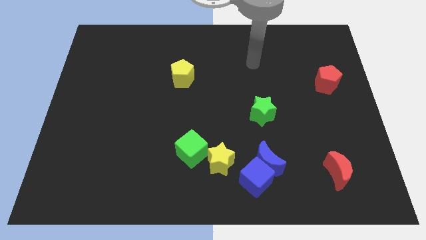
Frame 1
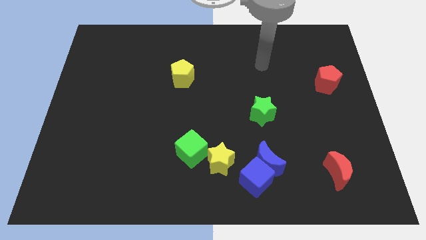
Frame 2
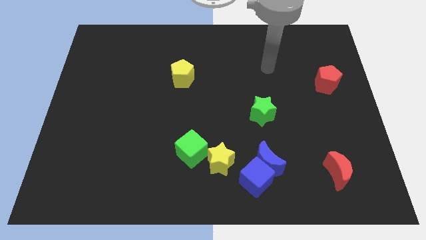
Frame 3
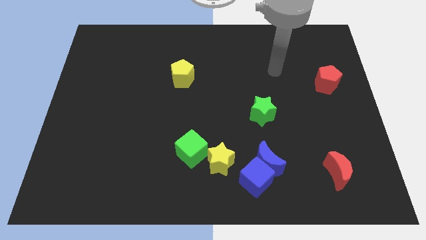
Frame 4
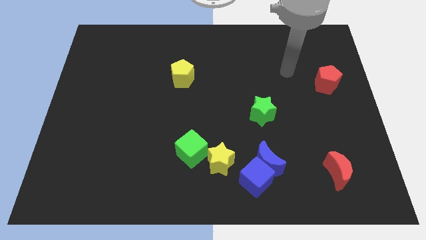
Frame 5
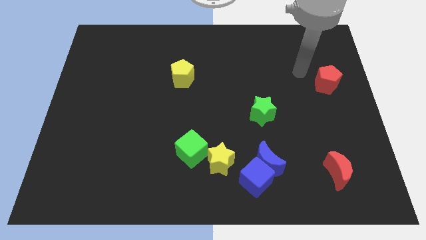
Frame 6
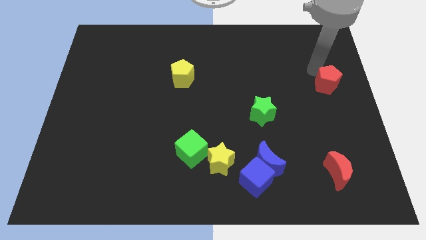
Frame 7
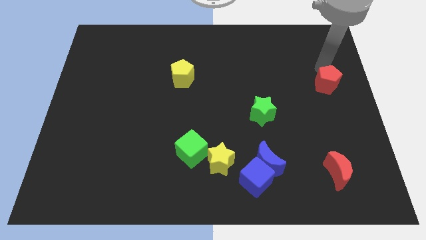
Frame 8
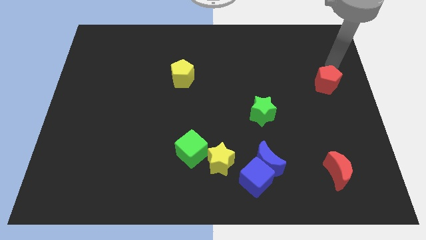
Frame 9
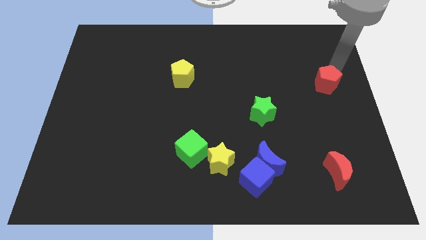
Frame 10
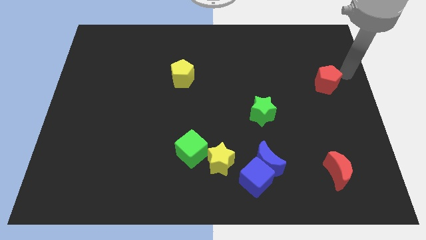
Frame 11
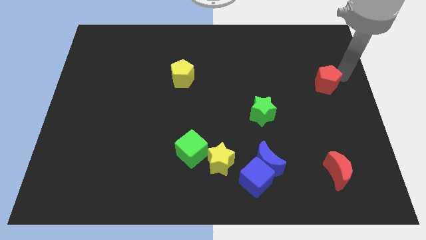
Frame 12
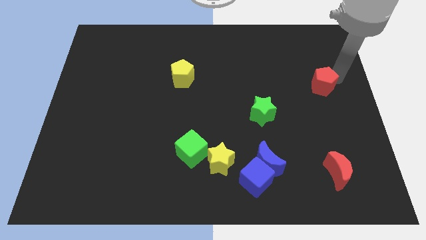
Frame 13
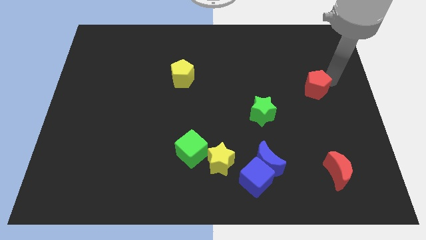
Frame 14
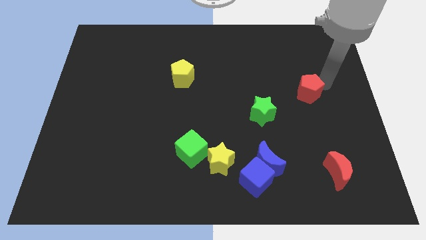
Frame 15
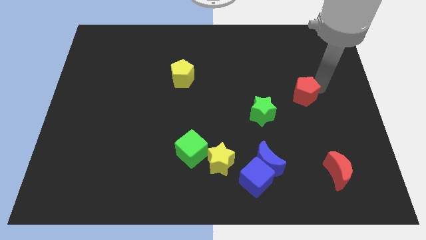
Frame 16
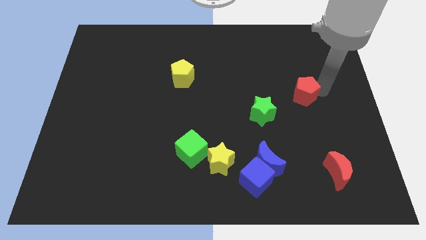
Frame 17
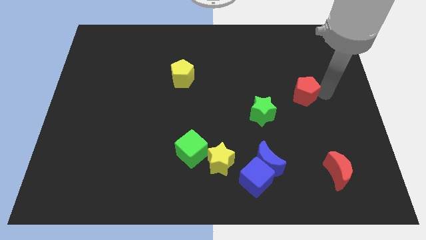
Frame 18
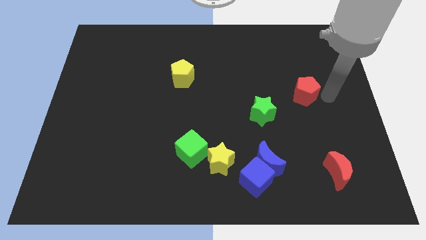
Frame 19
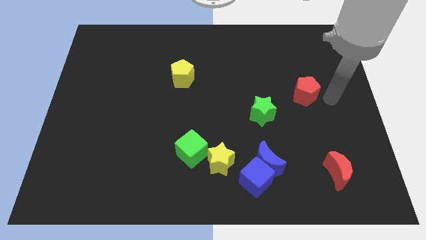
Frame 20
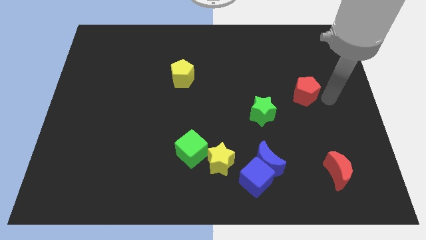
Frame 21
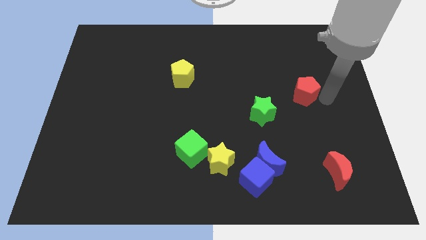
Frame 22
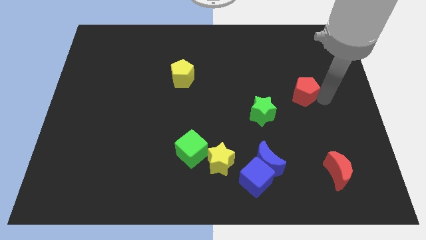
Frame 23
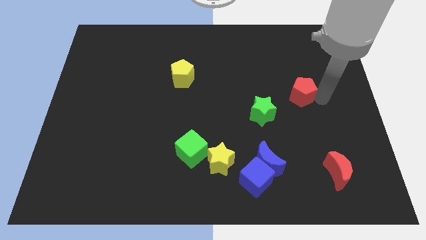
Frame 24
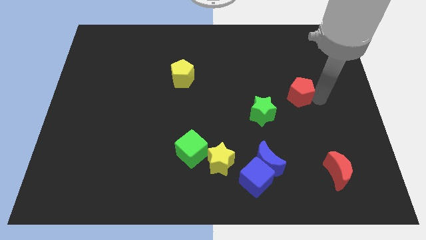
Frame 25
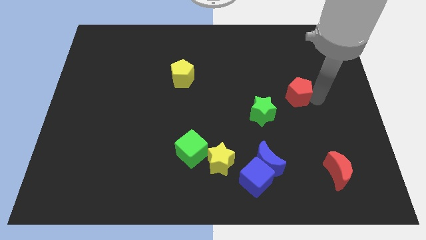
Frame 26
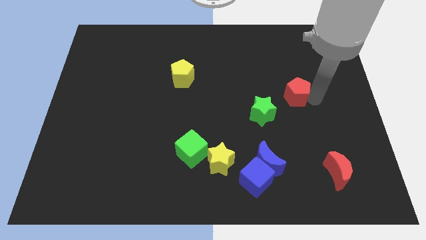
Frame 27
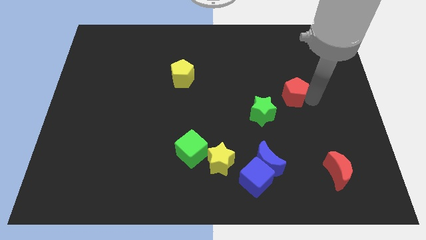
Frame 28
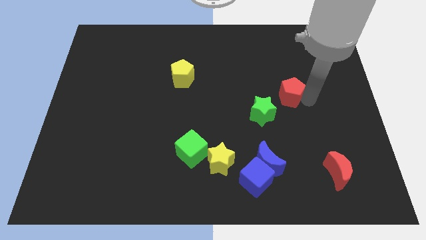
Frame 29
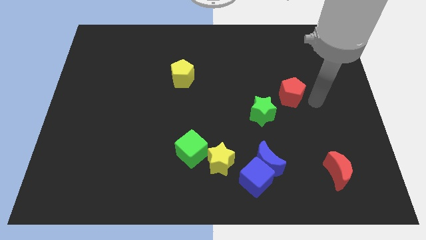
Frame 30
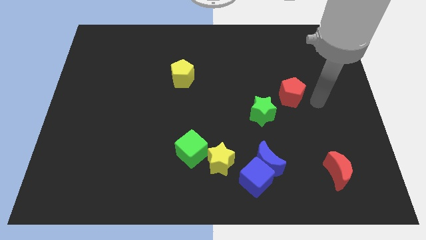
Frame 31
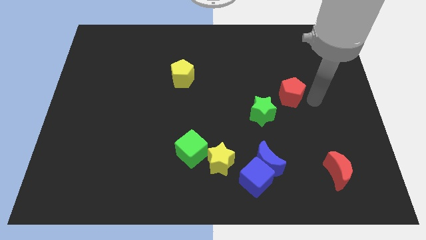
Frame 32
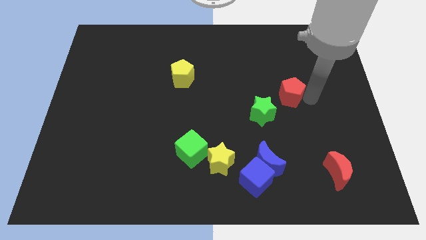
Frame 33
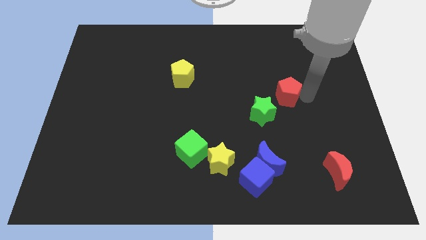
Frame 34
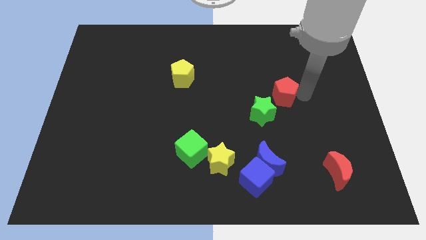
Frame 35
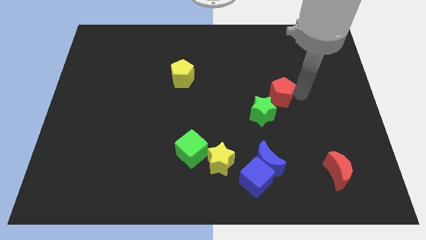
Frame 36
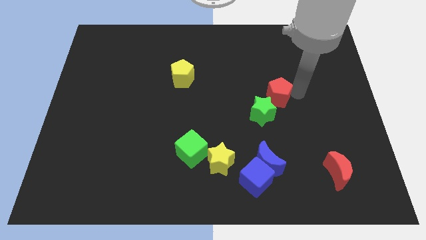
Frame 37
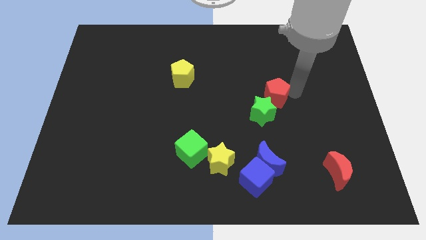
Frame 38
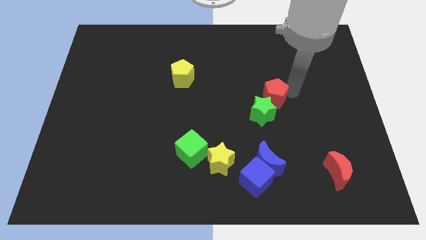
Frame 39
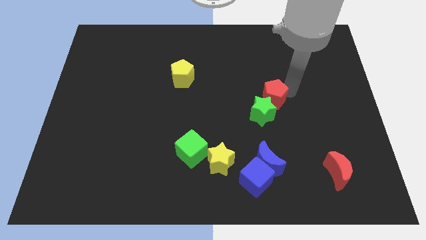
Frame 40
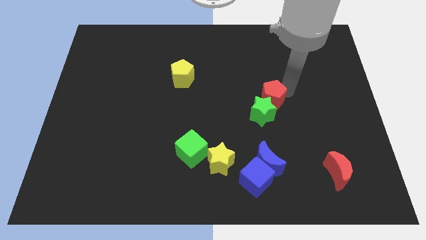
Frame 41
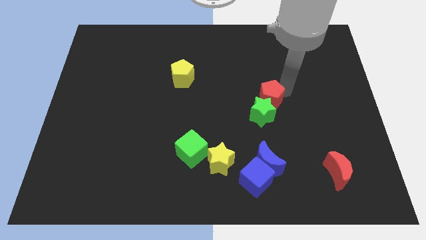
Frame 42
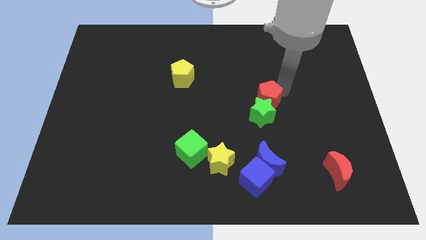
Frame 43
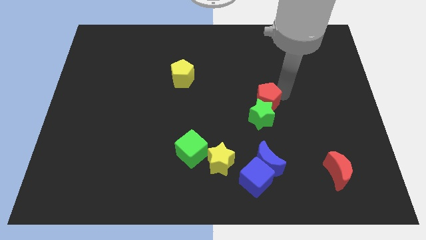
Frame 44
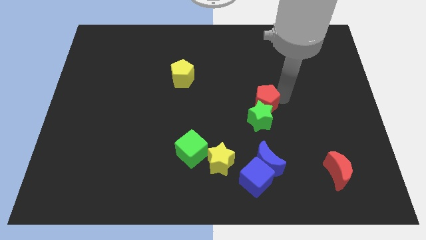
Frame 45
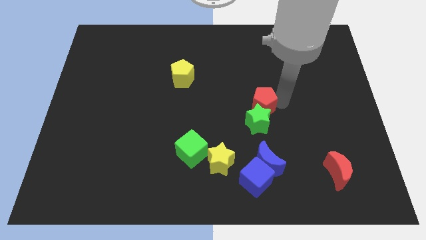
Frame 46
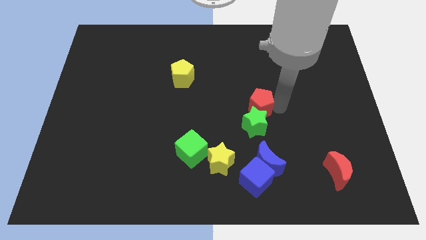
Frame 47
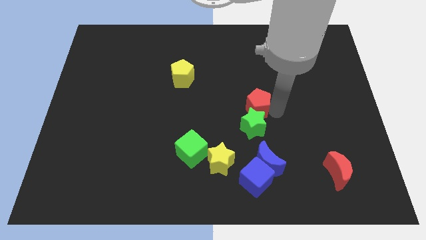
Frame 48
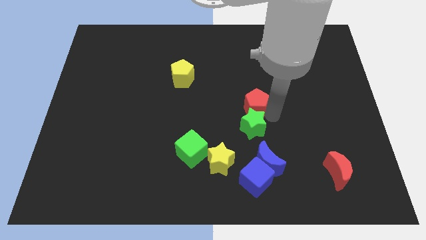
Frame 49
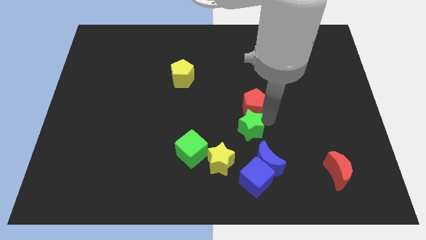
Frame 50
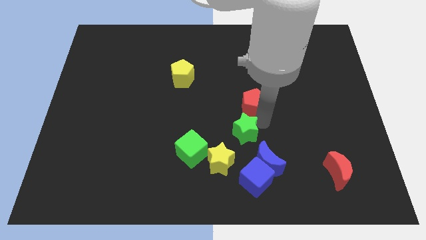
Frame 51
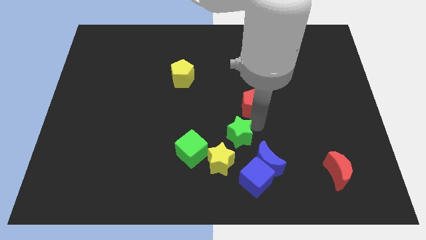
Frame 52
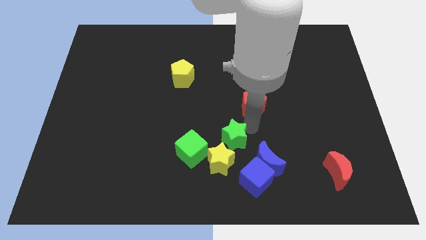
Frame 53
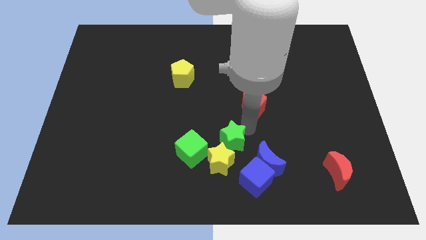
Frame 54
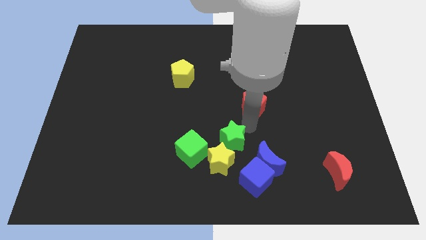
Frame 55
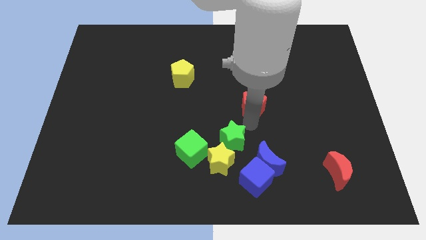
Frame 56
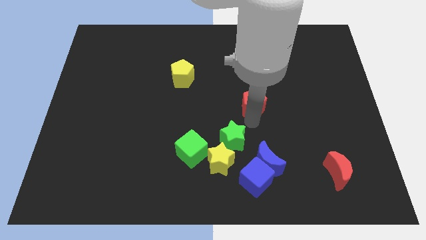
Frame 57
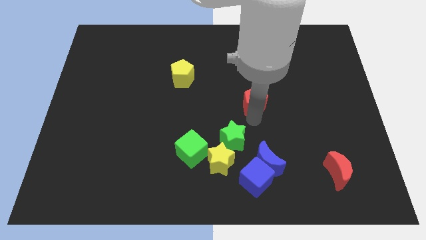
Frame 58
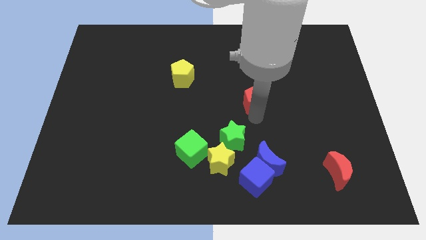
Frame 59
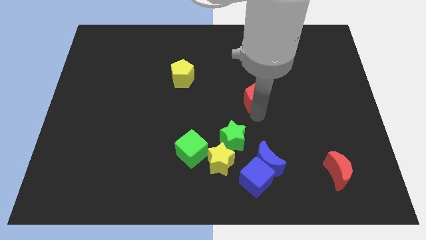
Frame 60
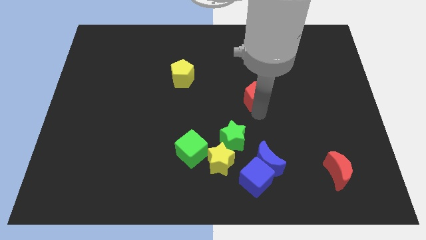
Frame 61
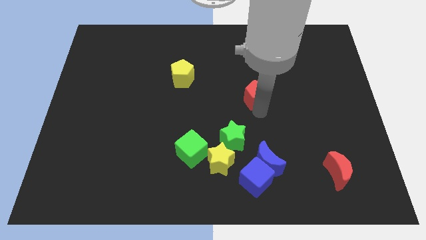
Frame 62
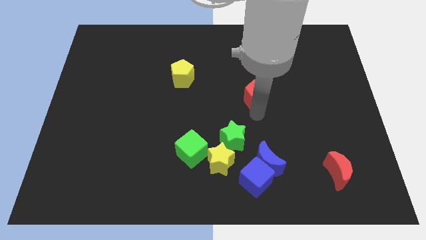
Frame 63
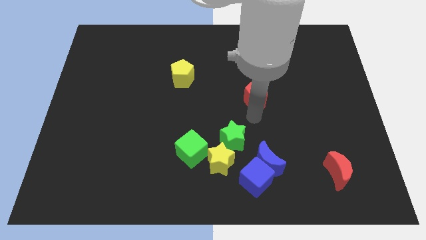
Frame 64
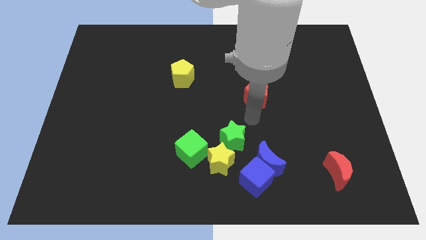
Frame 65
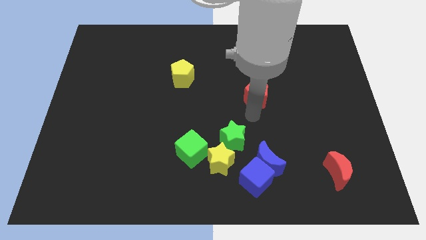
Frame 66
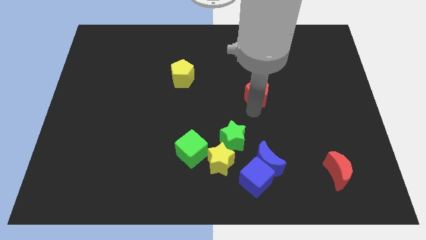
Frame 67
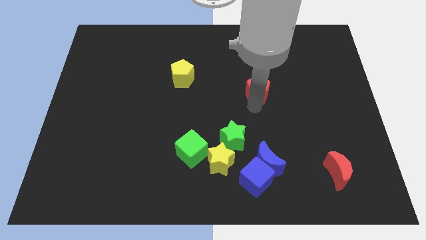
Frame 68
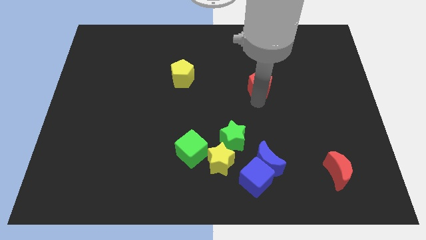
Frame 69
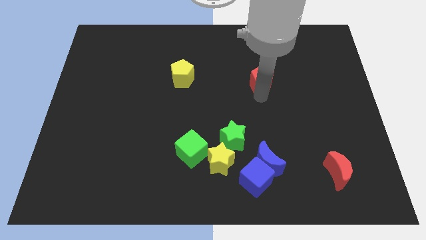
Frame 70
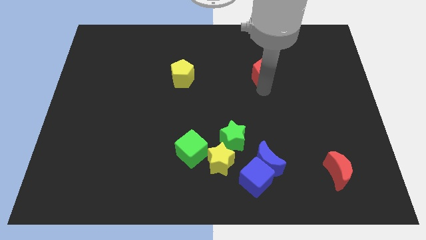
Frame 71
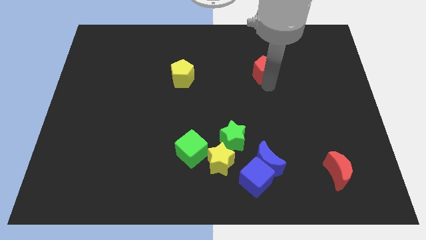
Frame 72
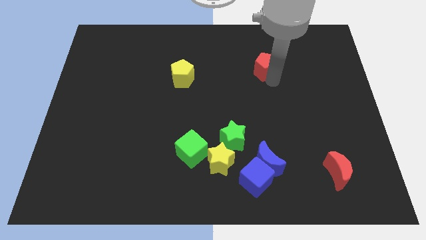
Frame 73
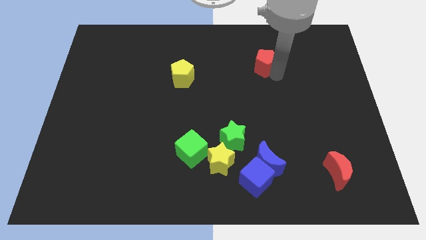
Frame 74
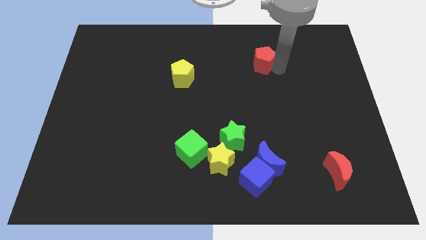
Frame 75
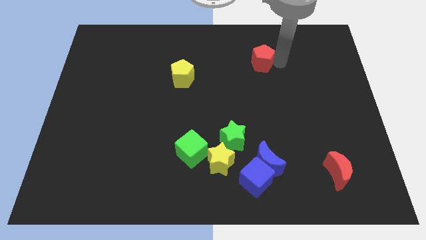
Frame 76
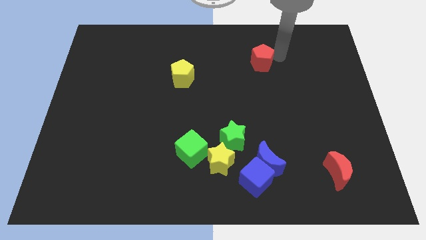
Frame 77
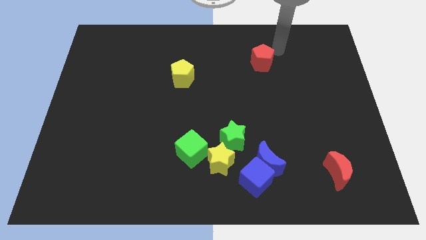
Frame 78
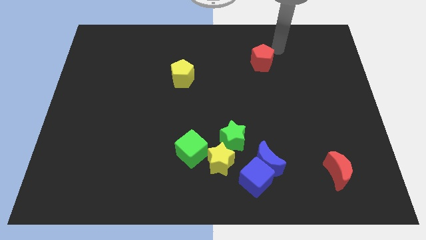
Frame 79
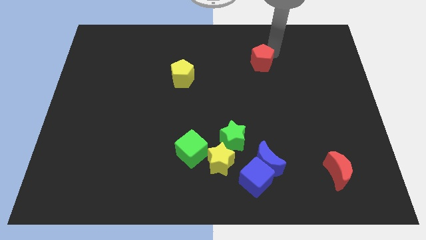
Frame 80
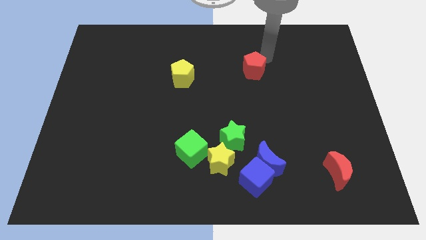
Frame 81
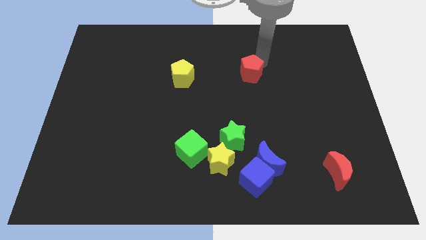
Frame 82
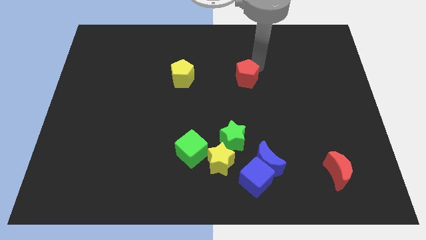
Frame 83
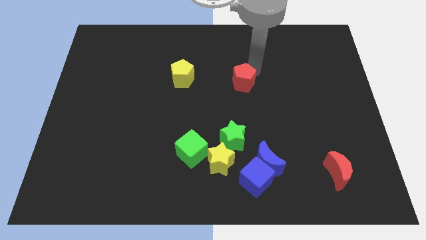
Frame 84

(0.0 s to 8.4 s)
push the red pentagon to the left
